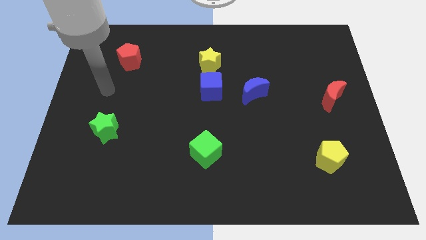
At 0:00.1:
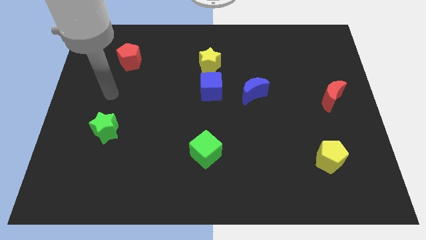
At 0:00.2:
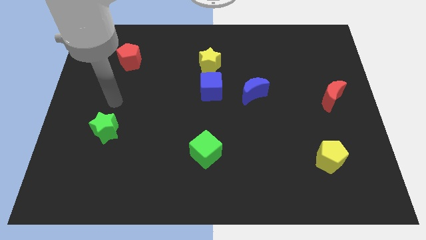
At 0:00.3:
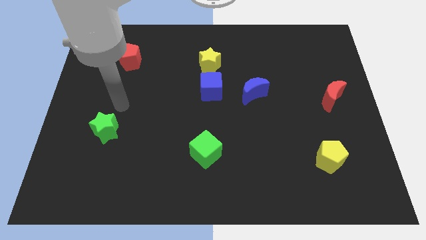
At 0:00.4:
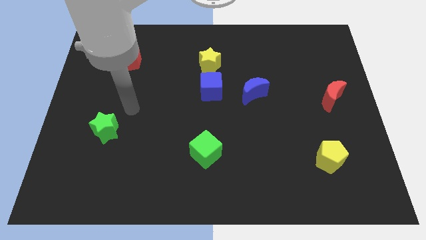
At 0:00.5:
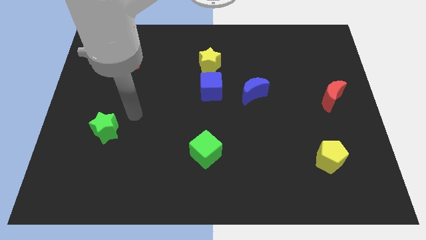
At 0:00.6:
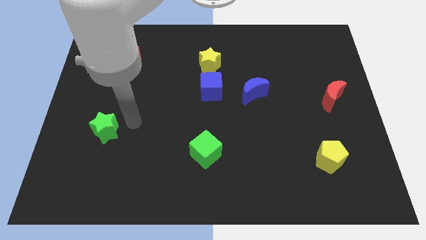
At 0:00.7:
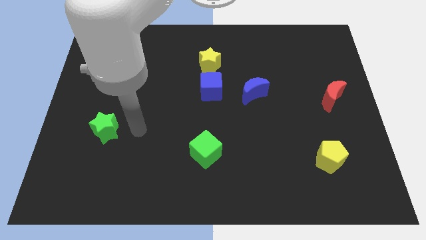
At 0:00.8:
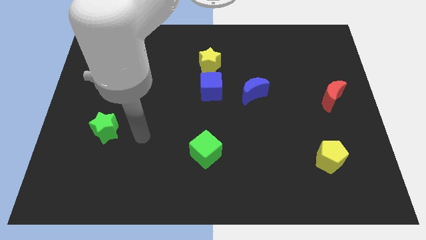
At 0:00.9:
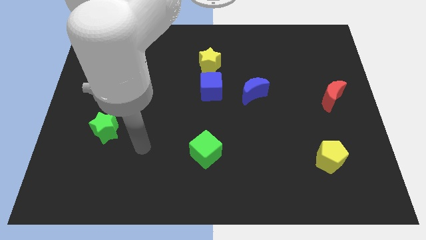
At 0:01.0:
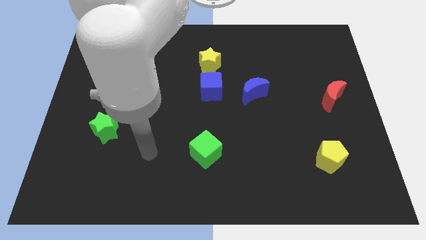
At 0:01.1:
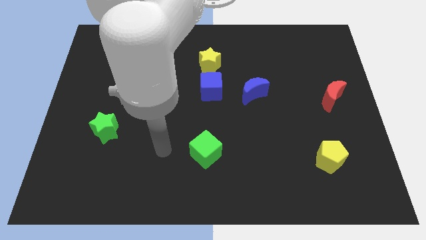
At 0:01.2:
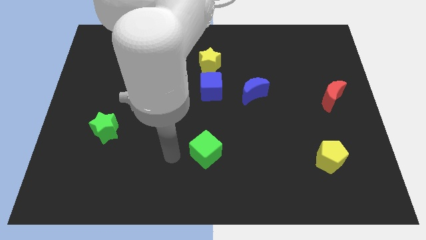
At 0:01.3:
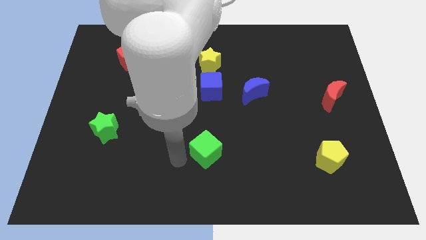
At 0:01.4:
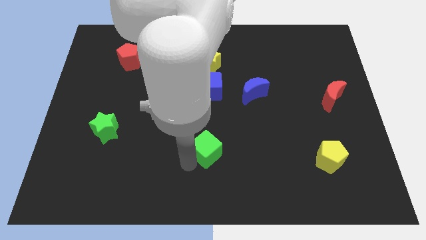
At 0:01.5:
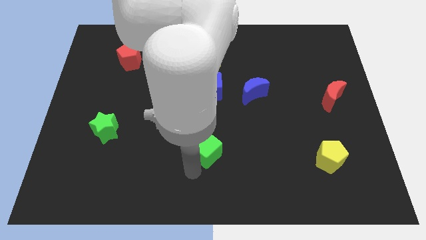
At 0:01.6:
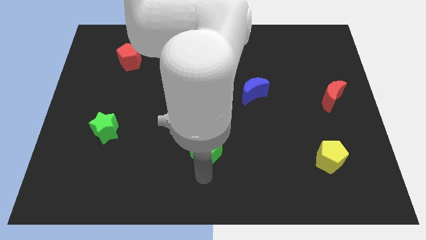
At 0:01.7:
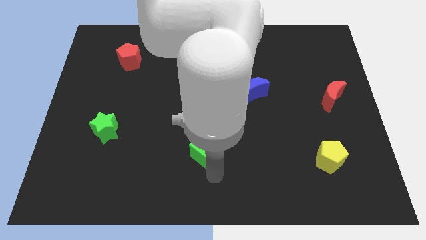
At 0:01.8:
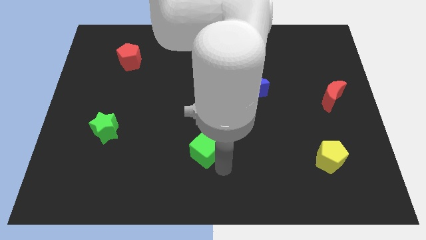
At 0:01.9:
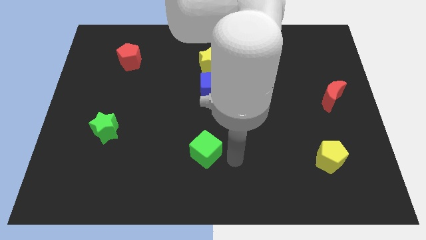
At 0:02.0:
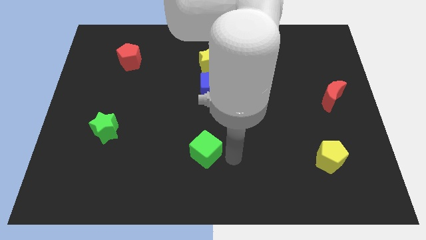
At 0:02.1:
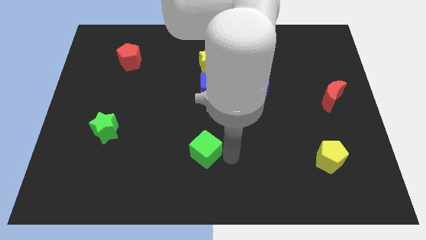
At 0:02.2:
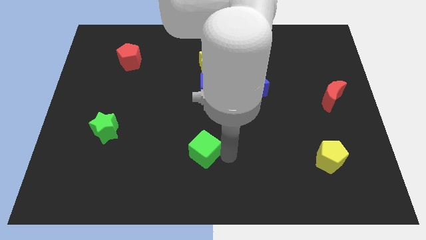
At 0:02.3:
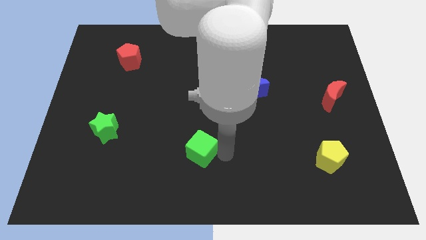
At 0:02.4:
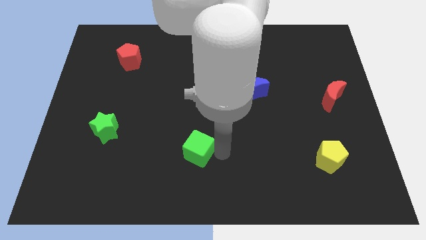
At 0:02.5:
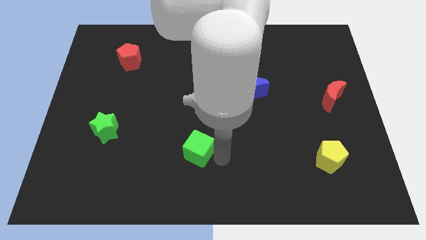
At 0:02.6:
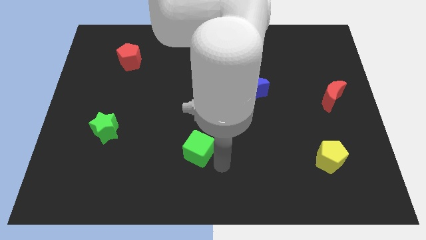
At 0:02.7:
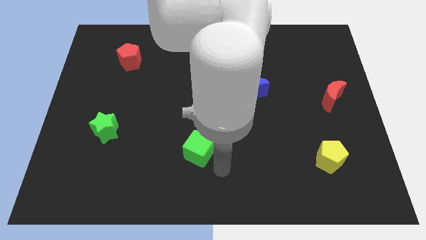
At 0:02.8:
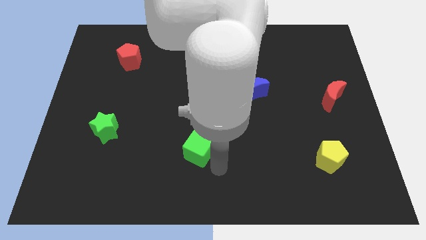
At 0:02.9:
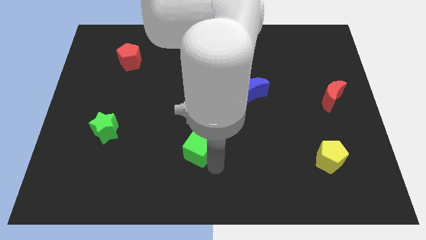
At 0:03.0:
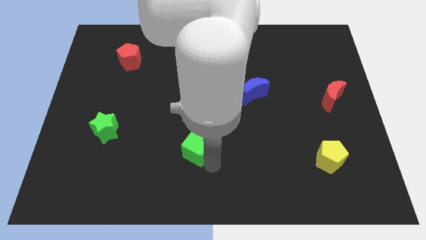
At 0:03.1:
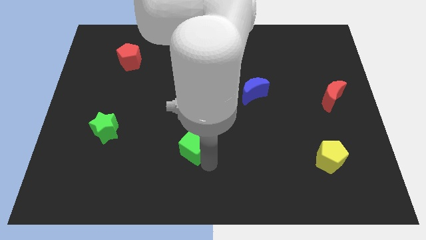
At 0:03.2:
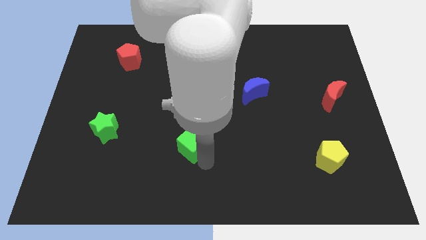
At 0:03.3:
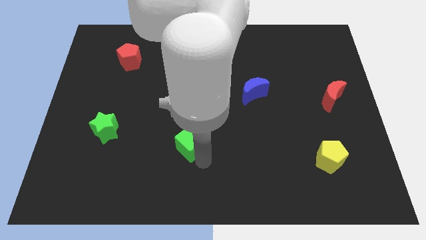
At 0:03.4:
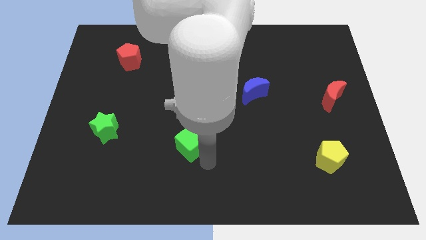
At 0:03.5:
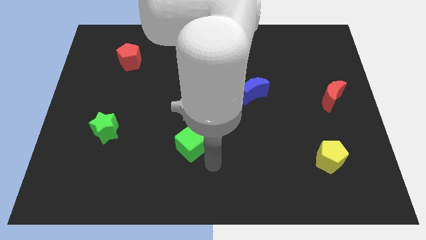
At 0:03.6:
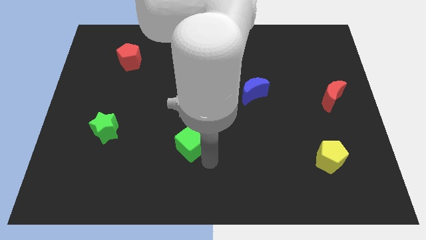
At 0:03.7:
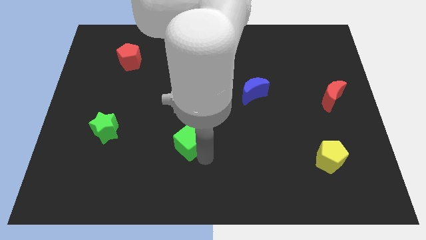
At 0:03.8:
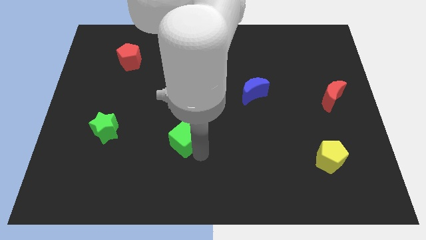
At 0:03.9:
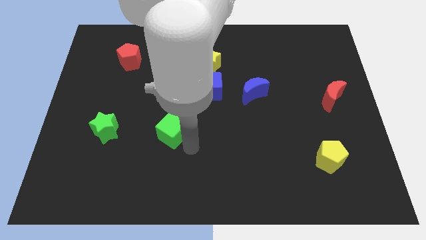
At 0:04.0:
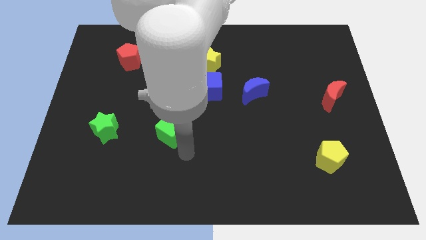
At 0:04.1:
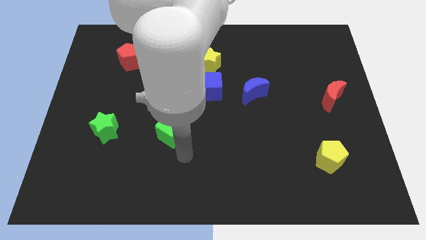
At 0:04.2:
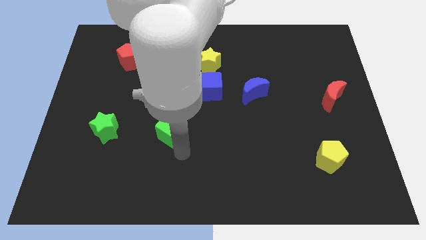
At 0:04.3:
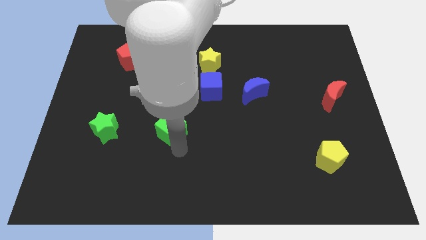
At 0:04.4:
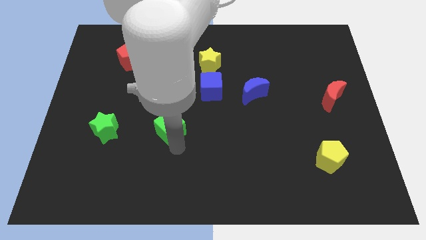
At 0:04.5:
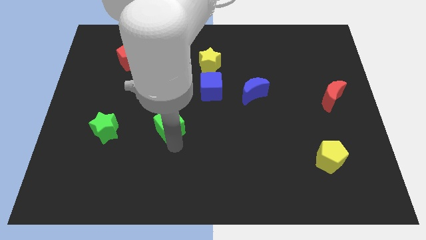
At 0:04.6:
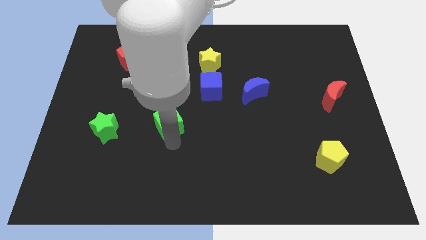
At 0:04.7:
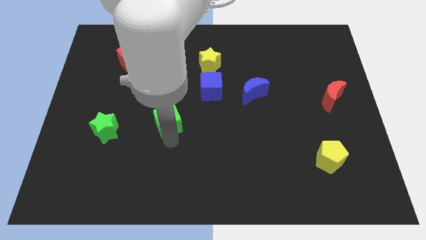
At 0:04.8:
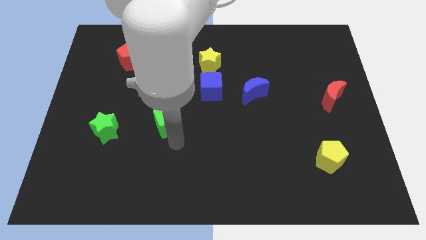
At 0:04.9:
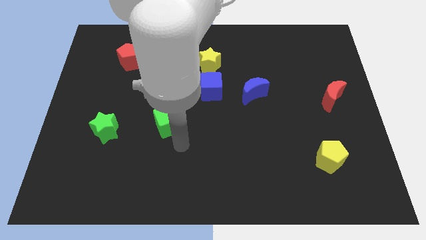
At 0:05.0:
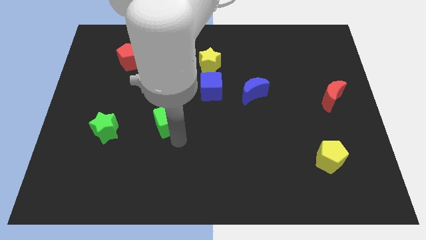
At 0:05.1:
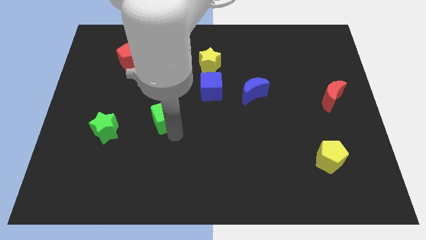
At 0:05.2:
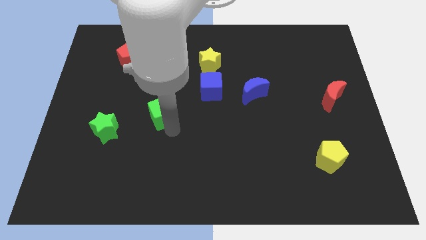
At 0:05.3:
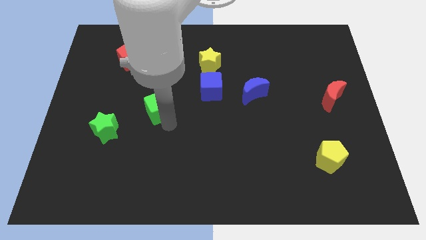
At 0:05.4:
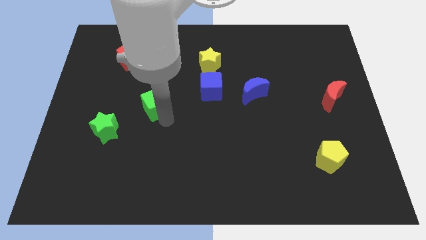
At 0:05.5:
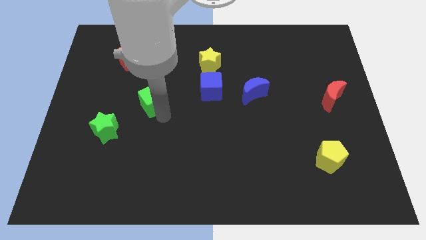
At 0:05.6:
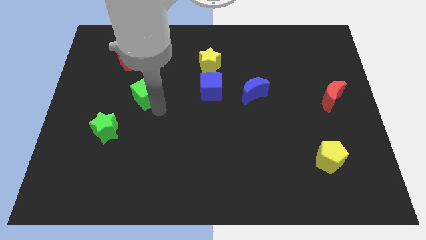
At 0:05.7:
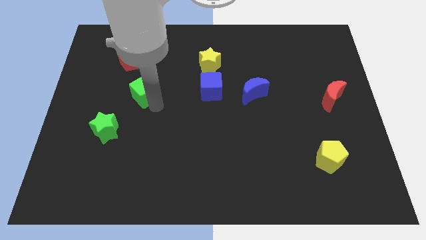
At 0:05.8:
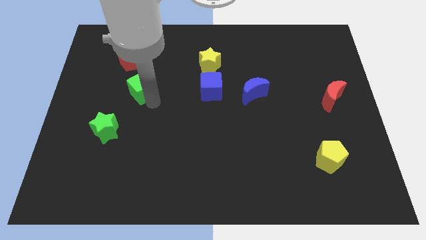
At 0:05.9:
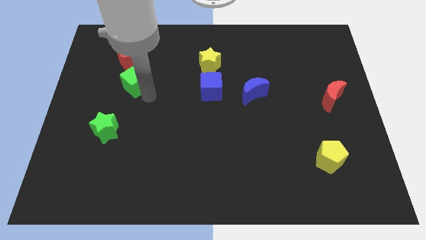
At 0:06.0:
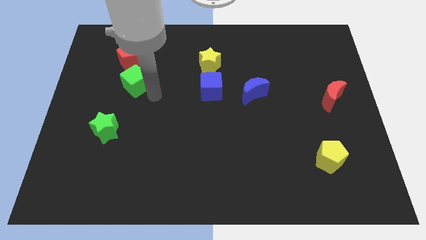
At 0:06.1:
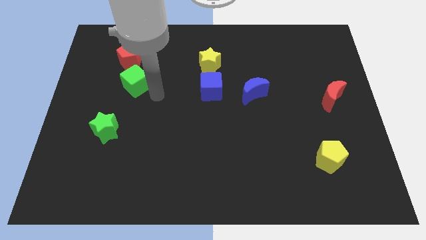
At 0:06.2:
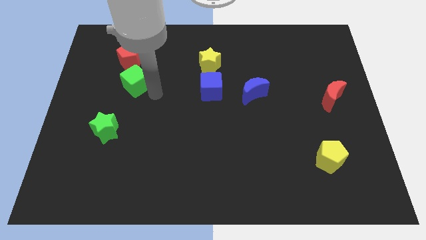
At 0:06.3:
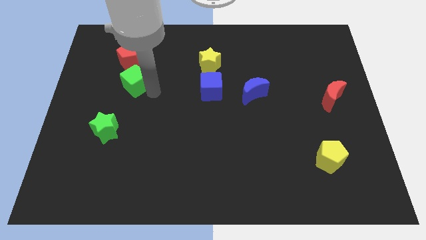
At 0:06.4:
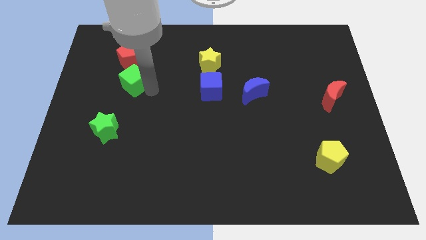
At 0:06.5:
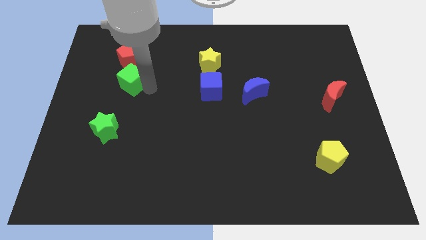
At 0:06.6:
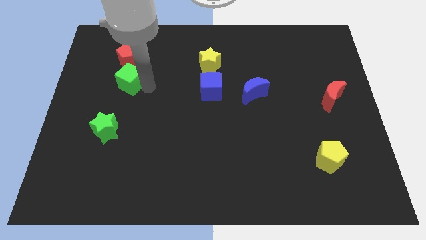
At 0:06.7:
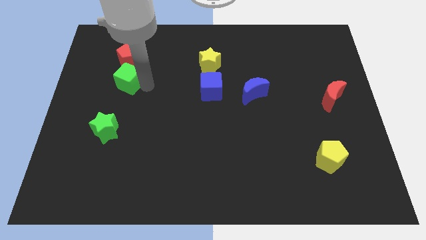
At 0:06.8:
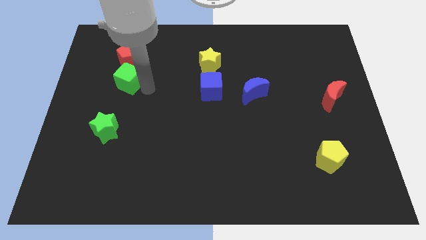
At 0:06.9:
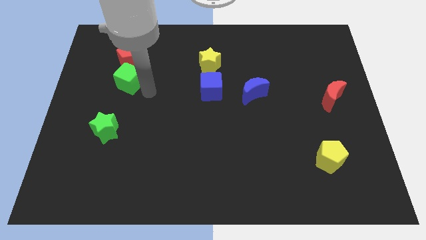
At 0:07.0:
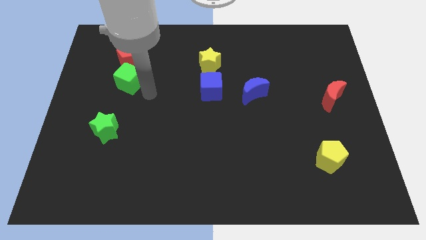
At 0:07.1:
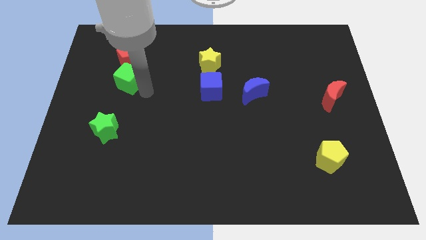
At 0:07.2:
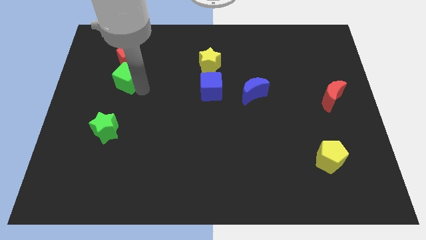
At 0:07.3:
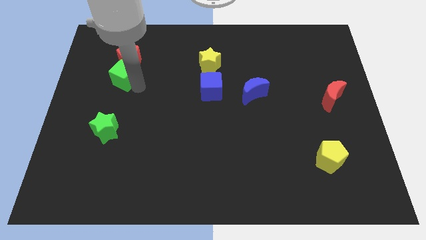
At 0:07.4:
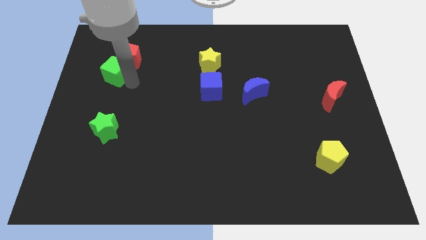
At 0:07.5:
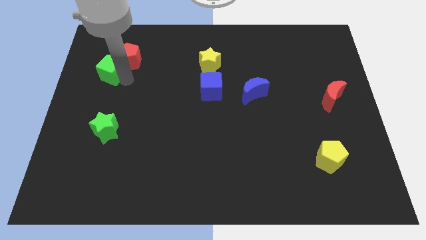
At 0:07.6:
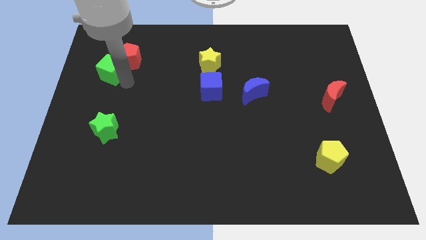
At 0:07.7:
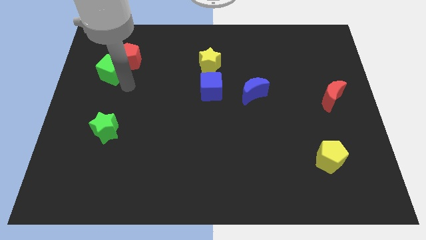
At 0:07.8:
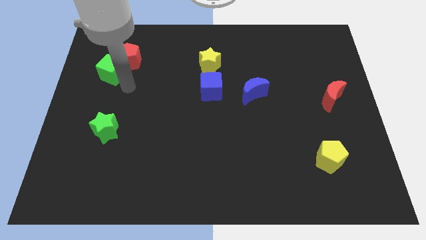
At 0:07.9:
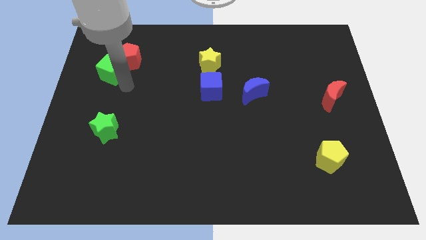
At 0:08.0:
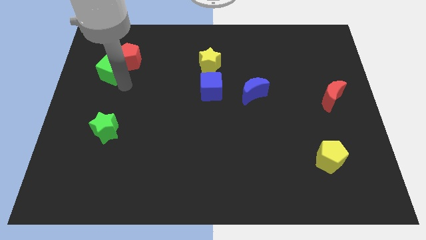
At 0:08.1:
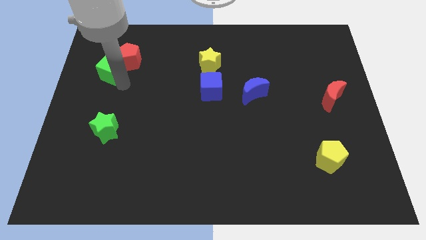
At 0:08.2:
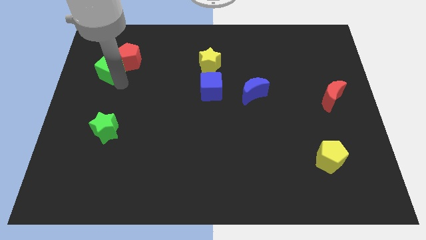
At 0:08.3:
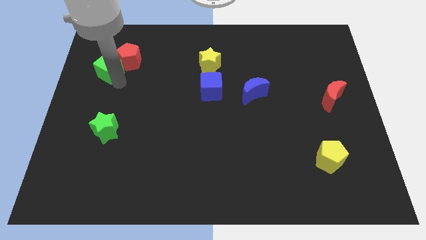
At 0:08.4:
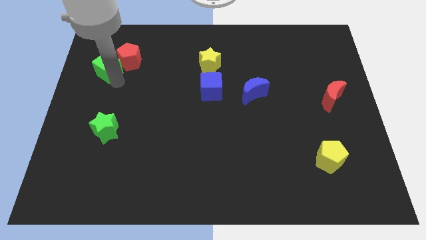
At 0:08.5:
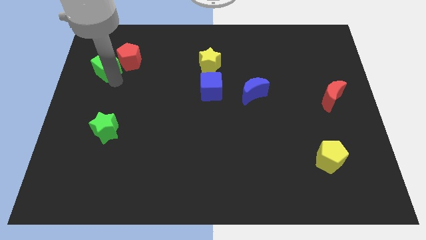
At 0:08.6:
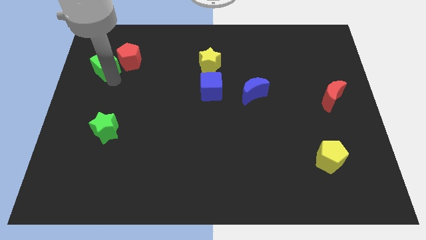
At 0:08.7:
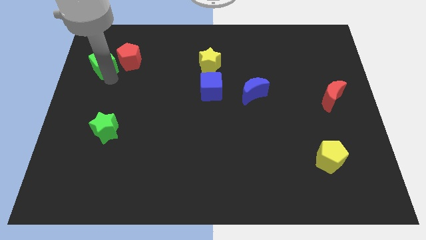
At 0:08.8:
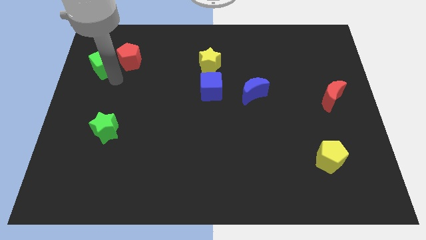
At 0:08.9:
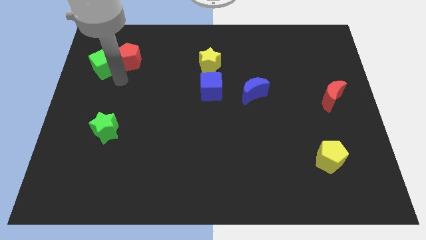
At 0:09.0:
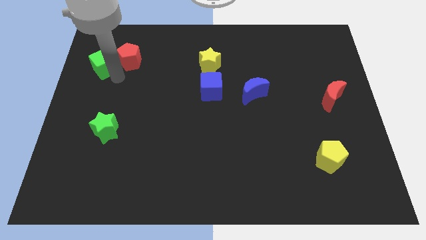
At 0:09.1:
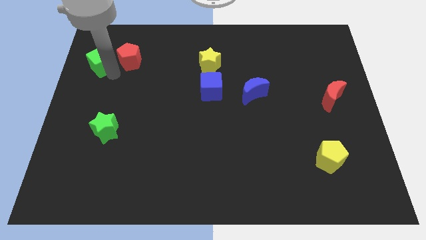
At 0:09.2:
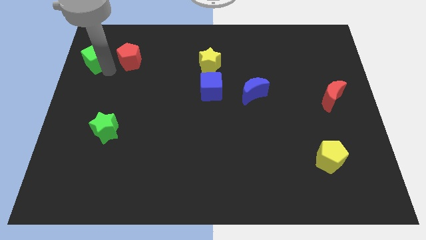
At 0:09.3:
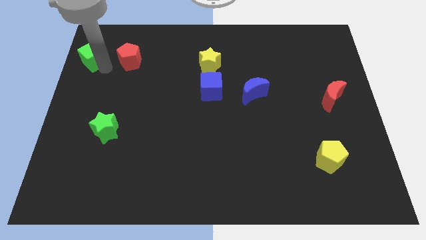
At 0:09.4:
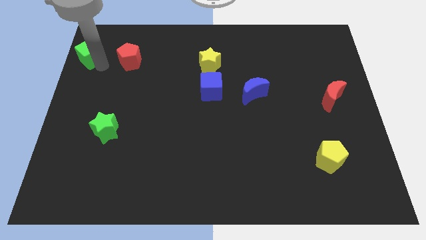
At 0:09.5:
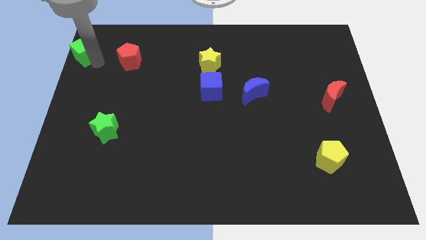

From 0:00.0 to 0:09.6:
move the green cube to the top left of the board
